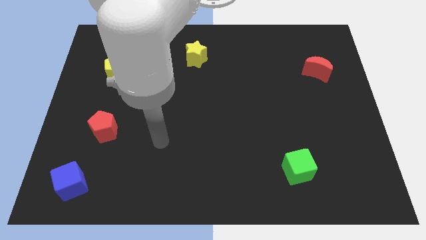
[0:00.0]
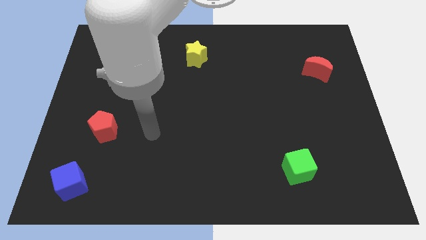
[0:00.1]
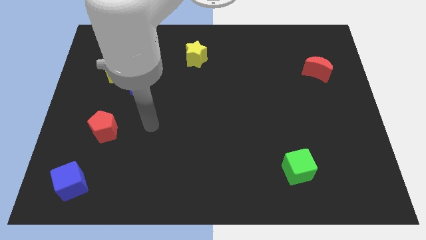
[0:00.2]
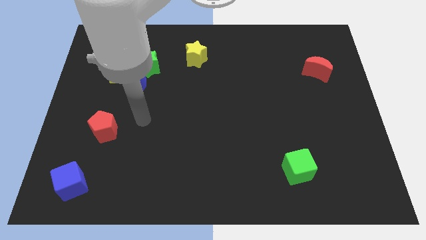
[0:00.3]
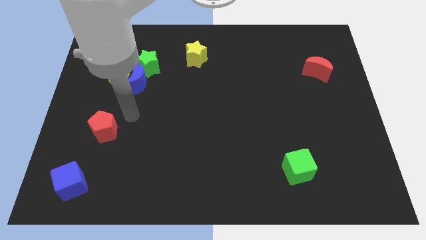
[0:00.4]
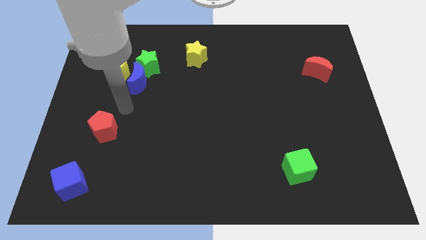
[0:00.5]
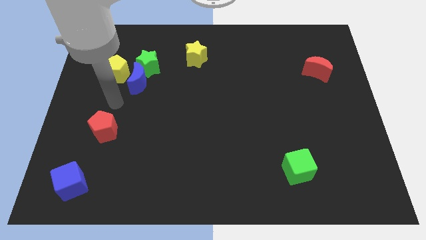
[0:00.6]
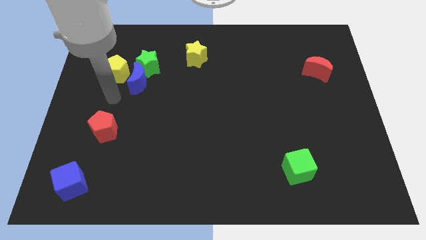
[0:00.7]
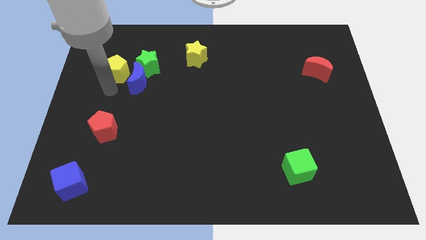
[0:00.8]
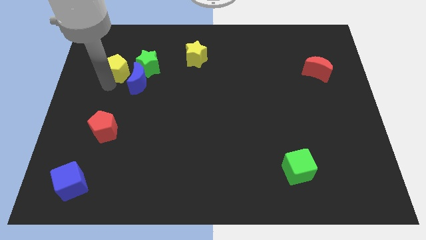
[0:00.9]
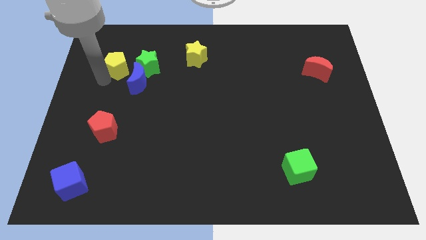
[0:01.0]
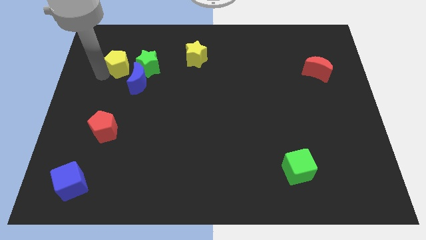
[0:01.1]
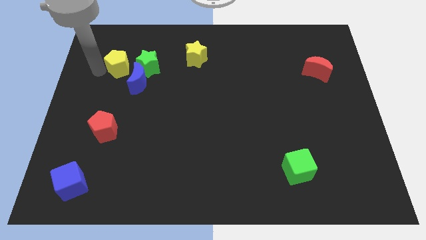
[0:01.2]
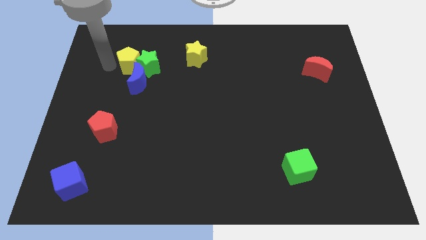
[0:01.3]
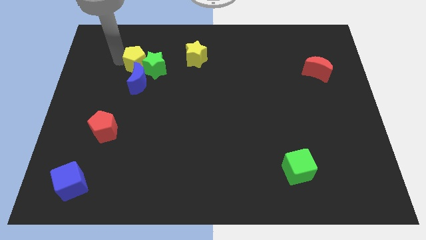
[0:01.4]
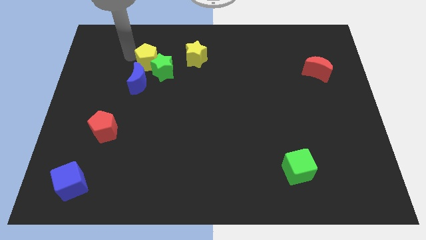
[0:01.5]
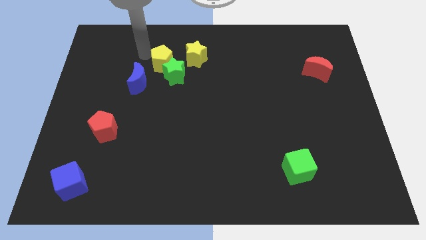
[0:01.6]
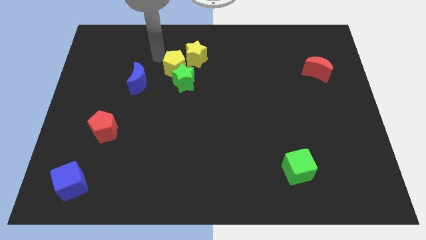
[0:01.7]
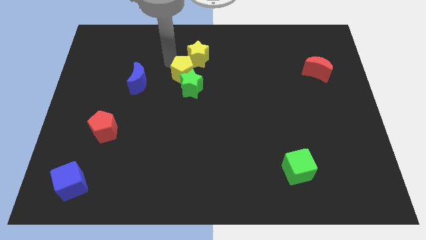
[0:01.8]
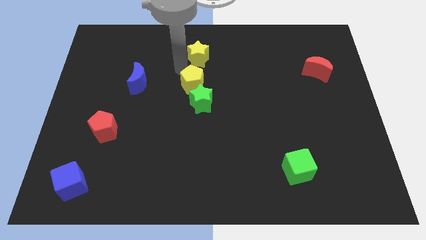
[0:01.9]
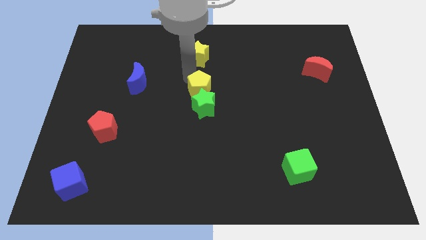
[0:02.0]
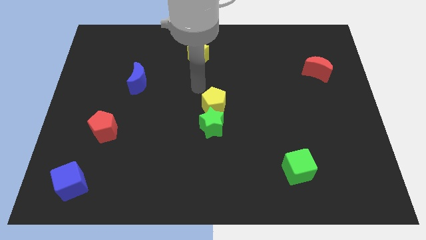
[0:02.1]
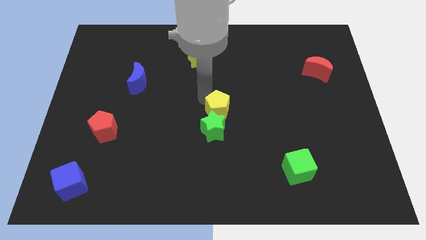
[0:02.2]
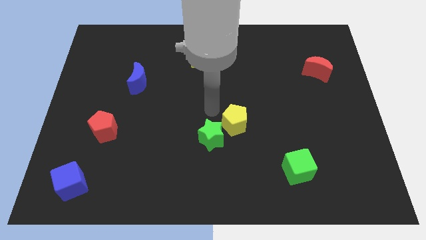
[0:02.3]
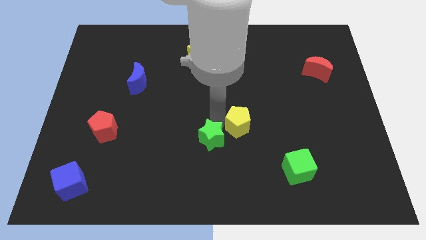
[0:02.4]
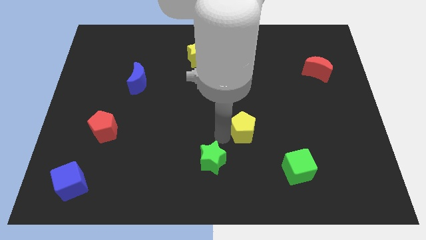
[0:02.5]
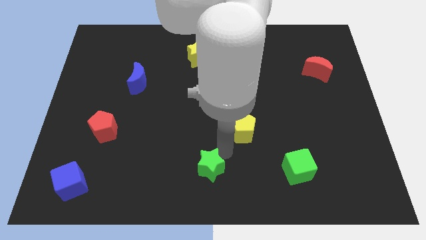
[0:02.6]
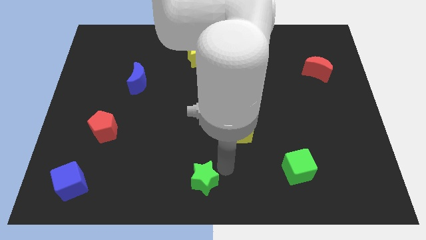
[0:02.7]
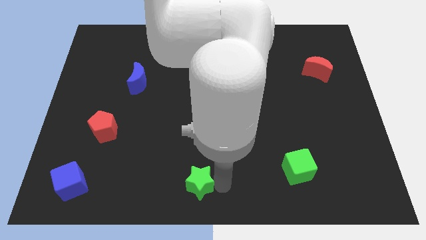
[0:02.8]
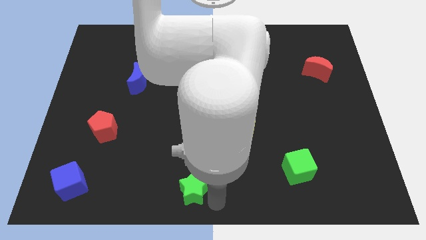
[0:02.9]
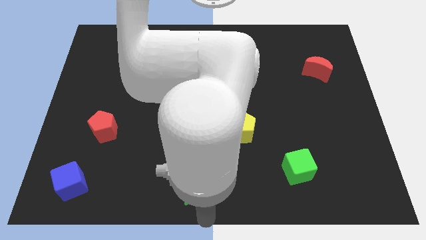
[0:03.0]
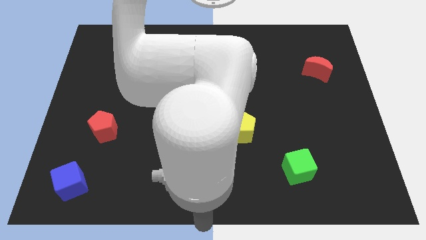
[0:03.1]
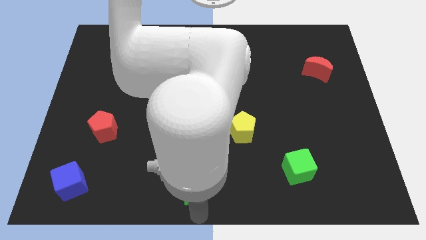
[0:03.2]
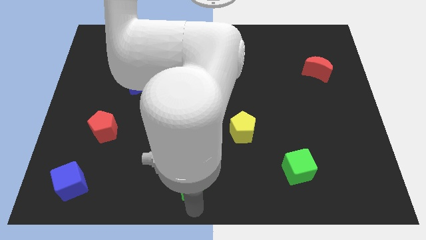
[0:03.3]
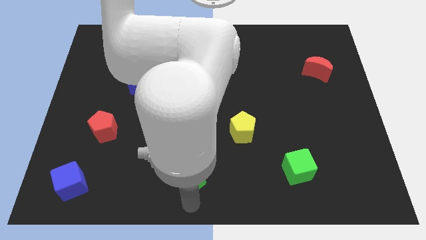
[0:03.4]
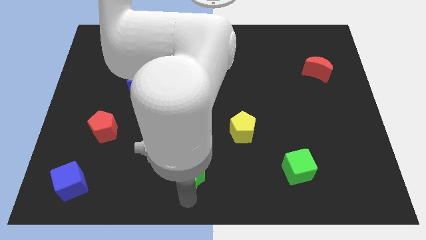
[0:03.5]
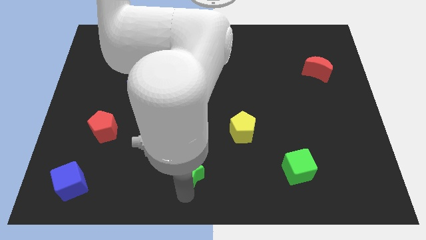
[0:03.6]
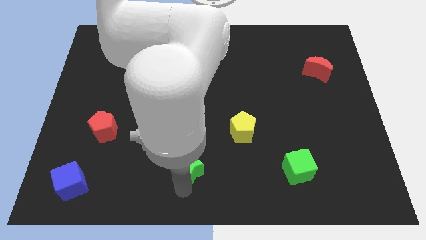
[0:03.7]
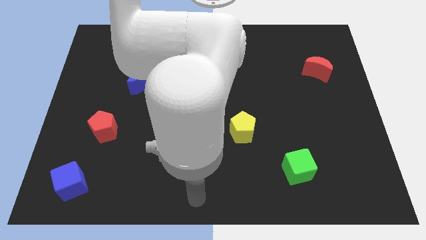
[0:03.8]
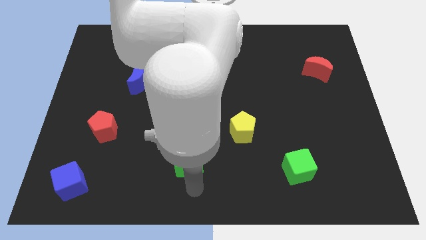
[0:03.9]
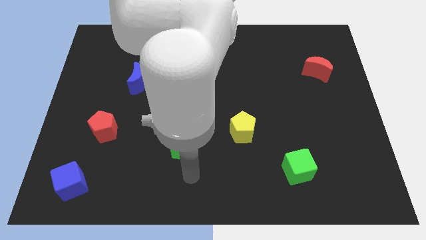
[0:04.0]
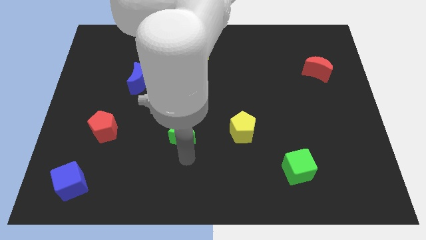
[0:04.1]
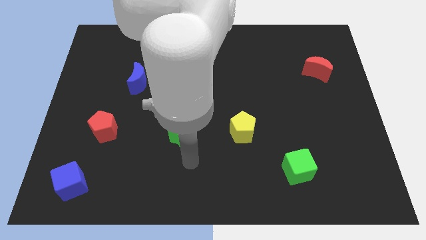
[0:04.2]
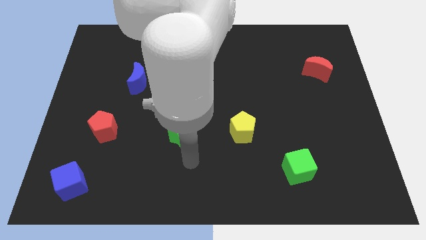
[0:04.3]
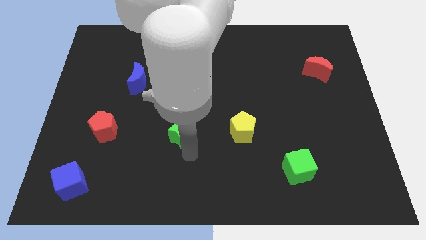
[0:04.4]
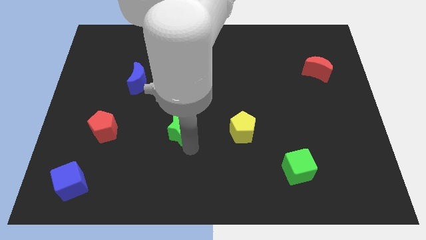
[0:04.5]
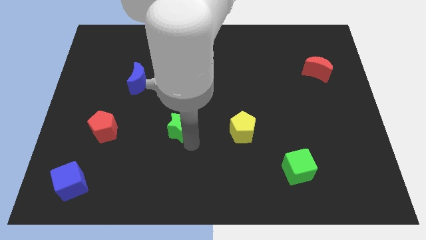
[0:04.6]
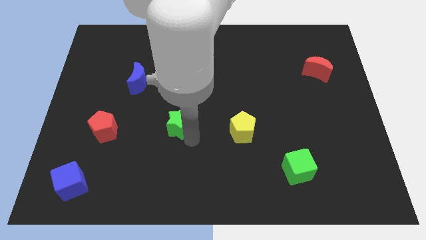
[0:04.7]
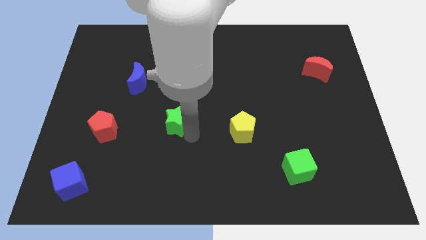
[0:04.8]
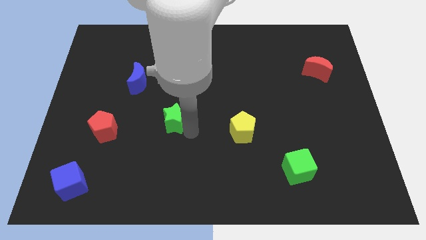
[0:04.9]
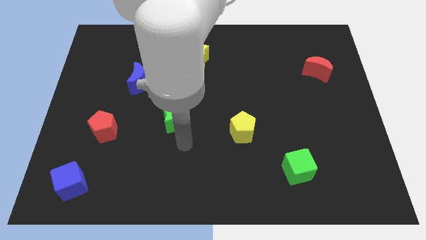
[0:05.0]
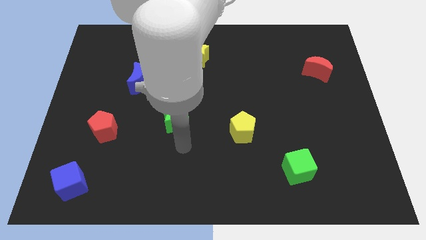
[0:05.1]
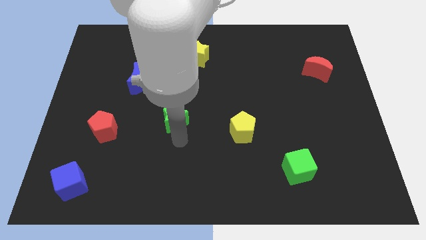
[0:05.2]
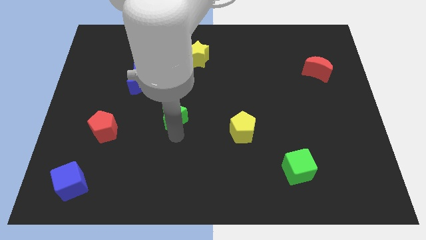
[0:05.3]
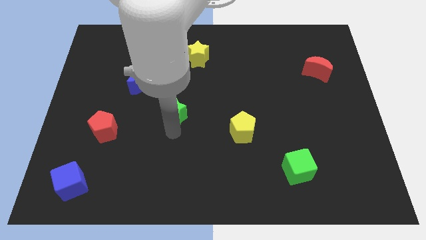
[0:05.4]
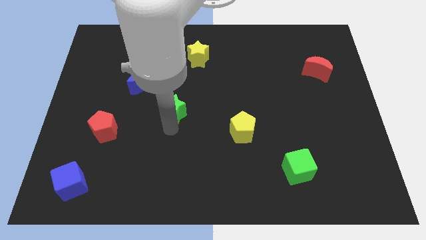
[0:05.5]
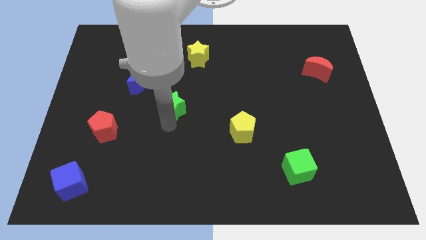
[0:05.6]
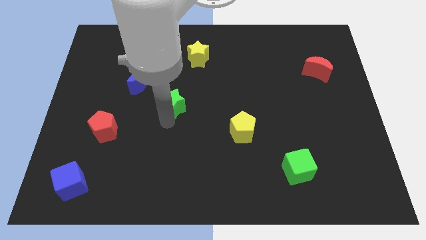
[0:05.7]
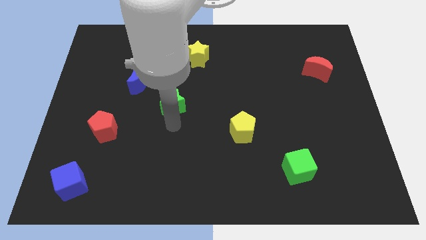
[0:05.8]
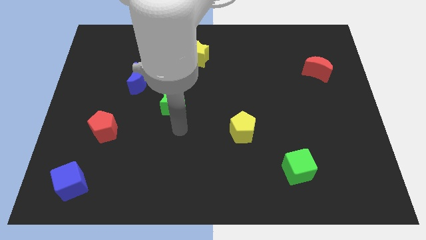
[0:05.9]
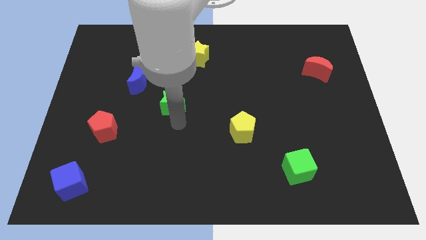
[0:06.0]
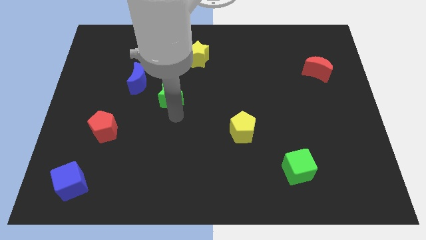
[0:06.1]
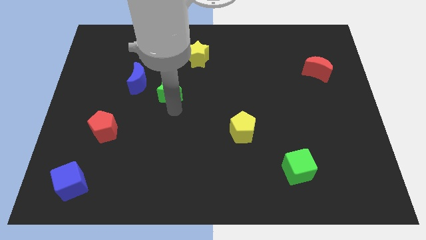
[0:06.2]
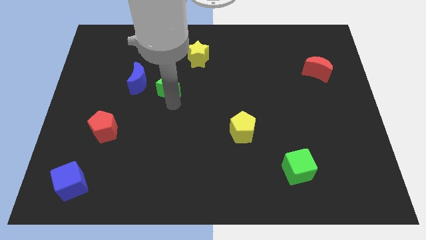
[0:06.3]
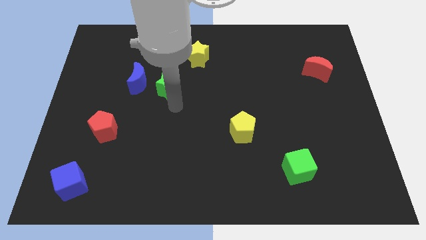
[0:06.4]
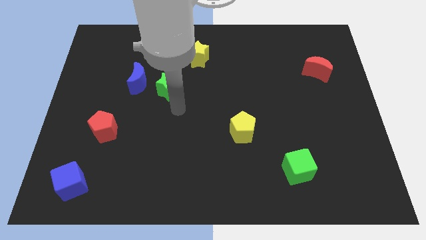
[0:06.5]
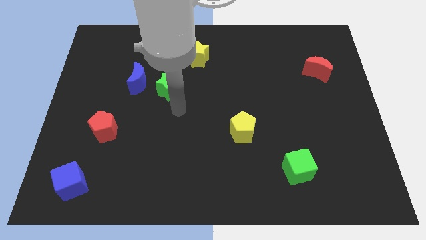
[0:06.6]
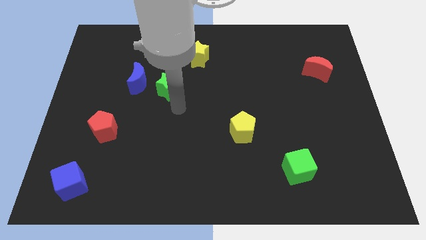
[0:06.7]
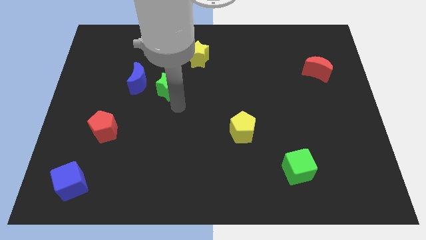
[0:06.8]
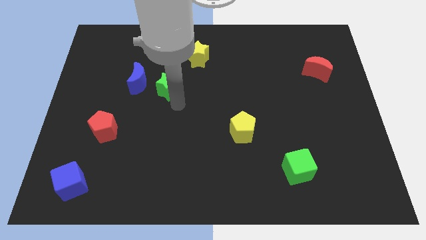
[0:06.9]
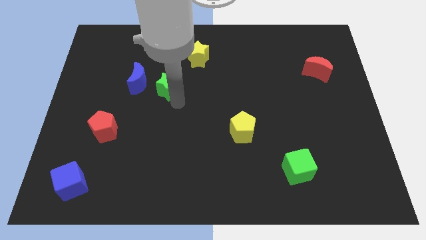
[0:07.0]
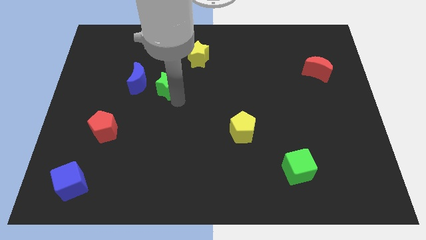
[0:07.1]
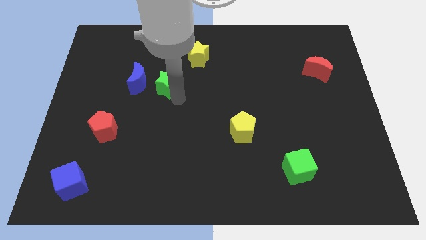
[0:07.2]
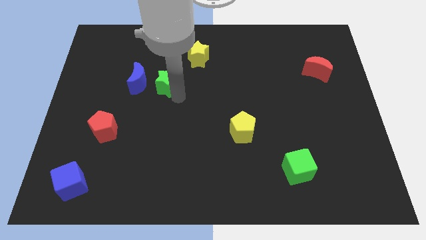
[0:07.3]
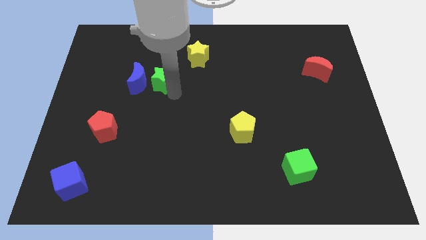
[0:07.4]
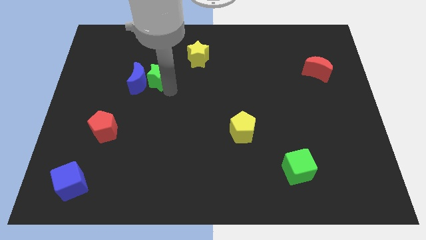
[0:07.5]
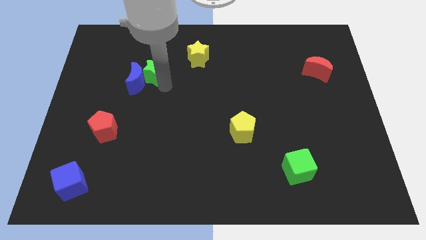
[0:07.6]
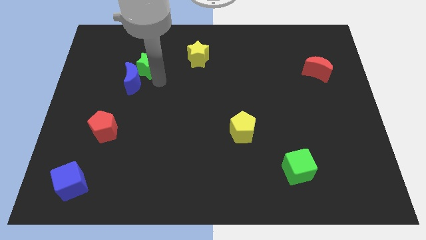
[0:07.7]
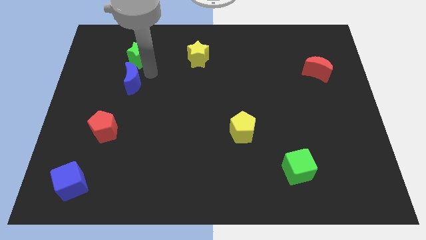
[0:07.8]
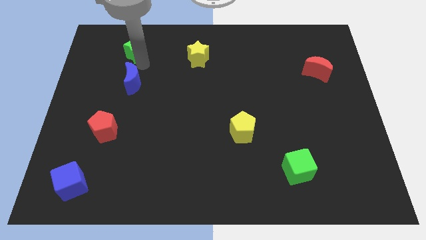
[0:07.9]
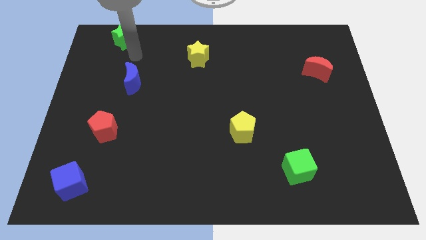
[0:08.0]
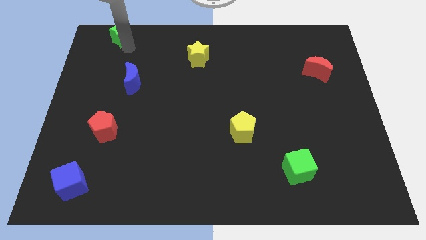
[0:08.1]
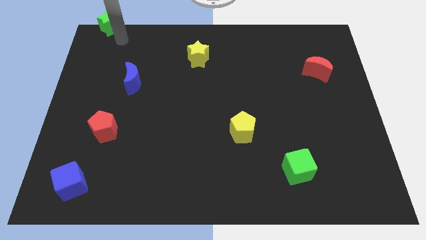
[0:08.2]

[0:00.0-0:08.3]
put the green star to the top left corner
